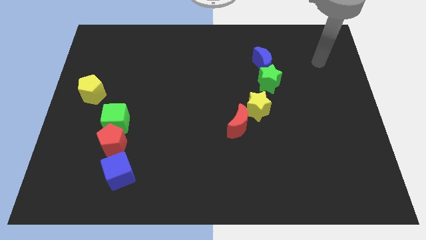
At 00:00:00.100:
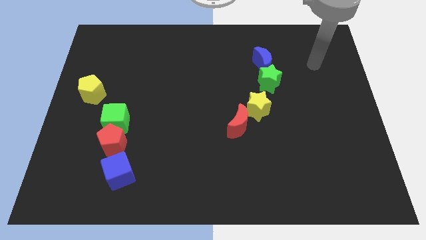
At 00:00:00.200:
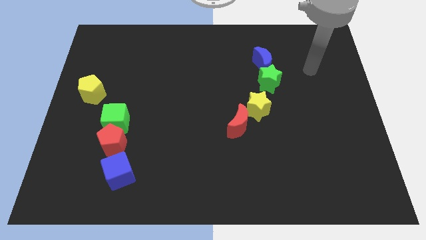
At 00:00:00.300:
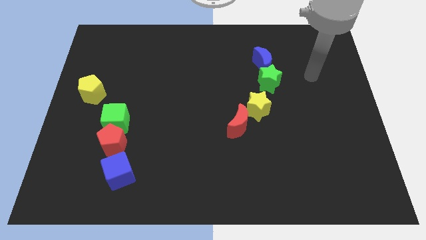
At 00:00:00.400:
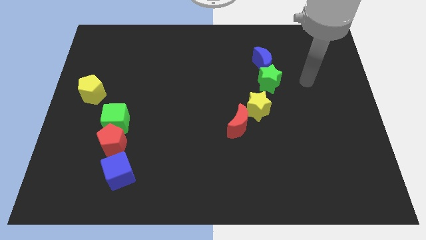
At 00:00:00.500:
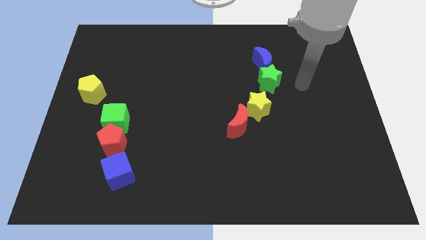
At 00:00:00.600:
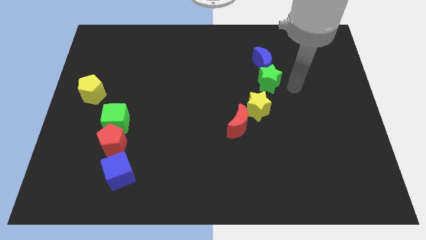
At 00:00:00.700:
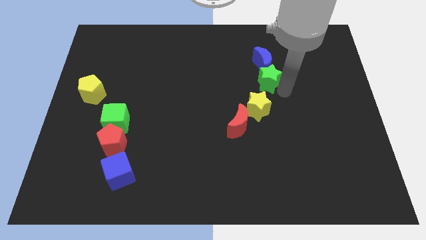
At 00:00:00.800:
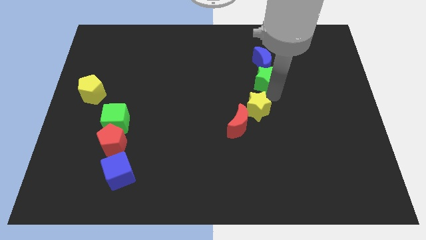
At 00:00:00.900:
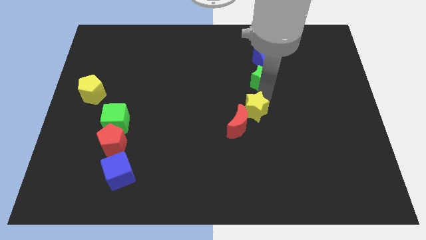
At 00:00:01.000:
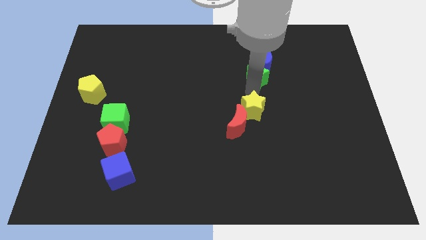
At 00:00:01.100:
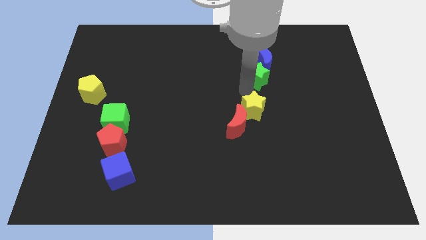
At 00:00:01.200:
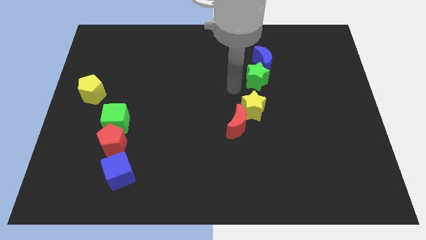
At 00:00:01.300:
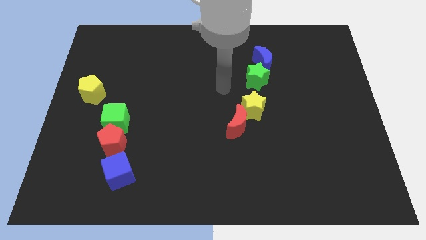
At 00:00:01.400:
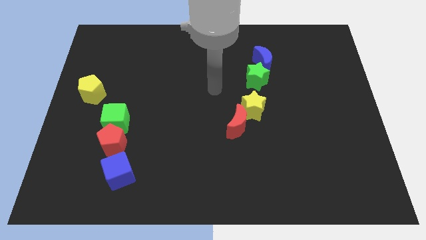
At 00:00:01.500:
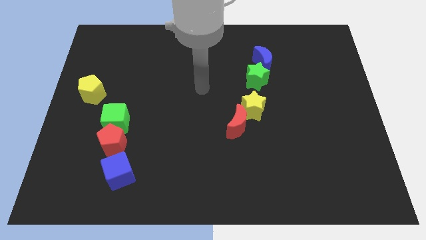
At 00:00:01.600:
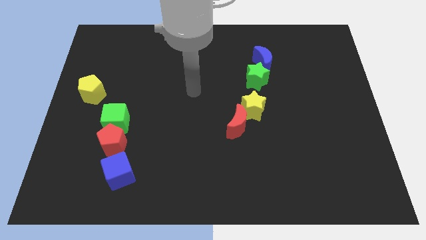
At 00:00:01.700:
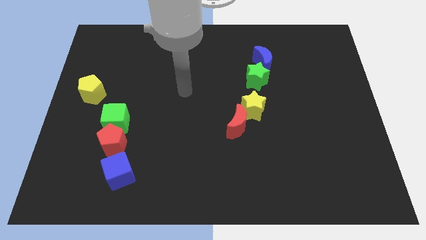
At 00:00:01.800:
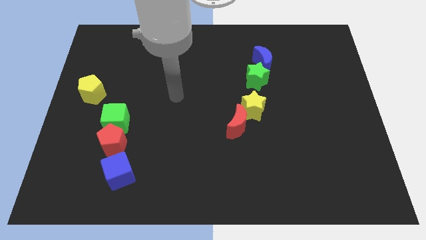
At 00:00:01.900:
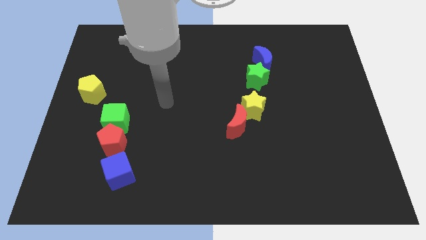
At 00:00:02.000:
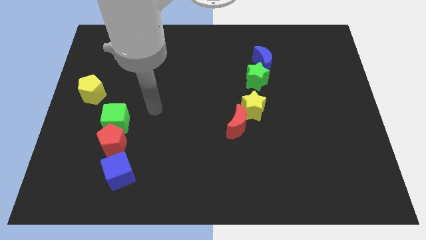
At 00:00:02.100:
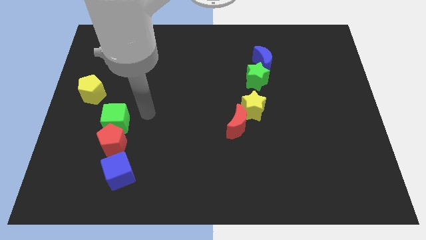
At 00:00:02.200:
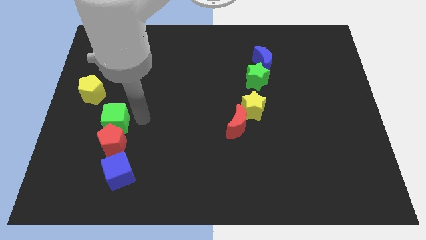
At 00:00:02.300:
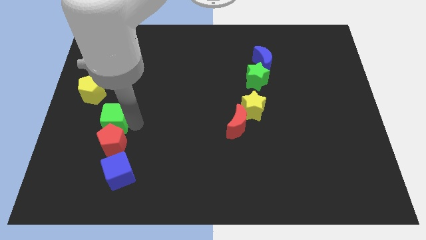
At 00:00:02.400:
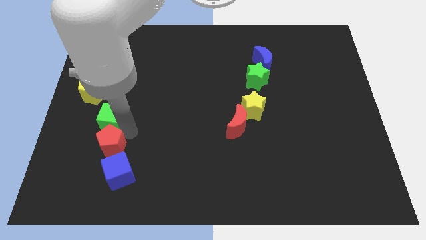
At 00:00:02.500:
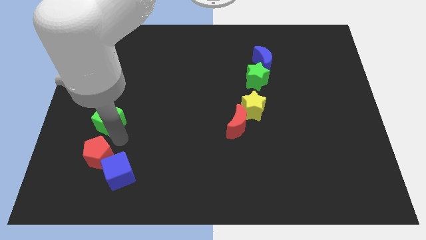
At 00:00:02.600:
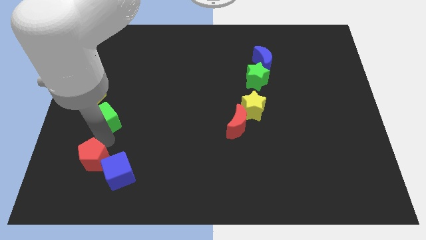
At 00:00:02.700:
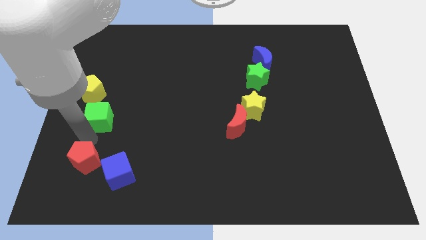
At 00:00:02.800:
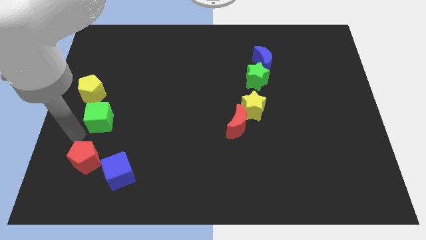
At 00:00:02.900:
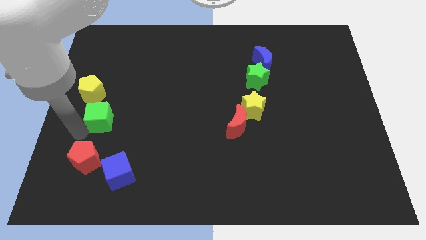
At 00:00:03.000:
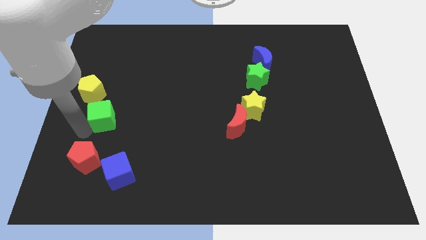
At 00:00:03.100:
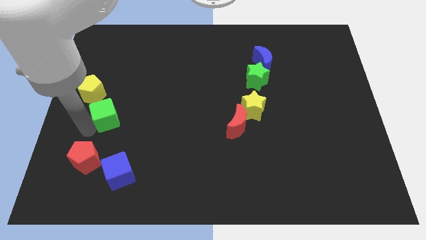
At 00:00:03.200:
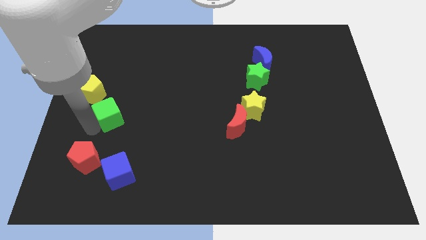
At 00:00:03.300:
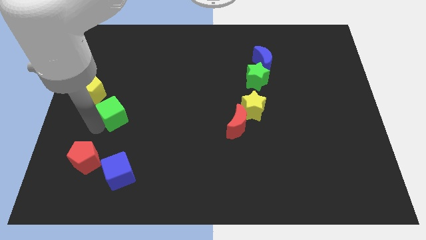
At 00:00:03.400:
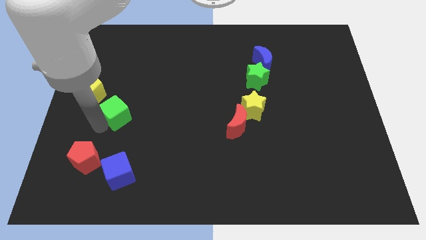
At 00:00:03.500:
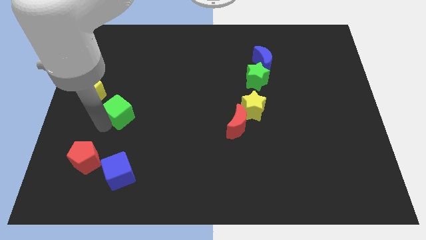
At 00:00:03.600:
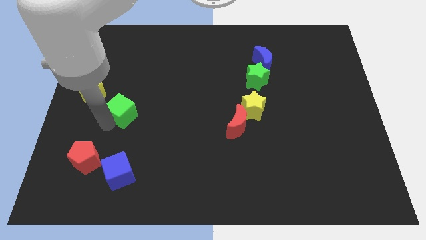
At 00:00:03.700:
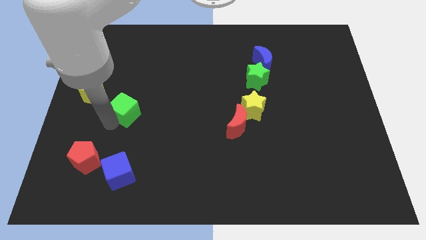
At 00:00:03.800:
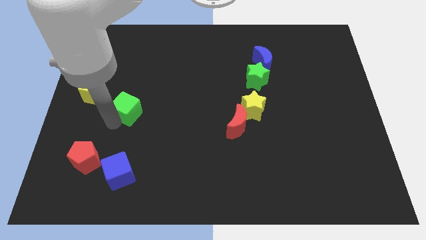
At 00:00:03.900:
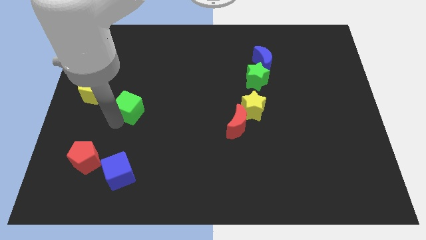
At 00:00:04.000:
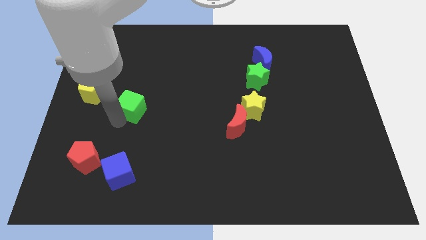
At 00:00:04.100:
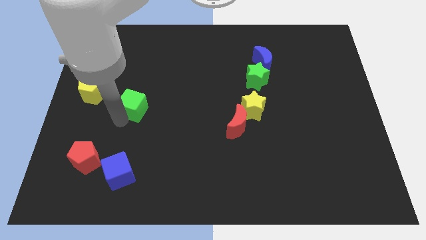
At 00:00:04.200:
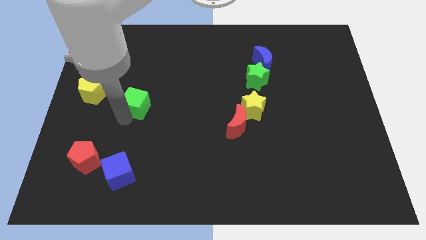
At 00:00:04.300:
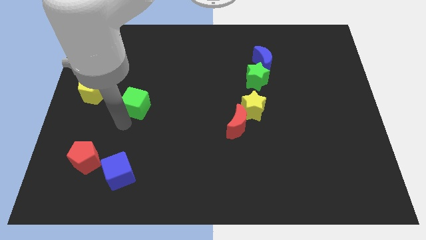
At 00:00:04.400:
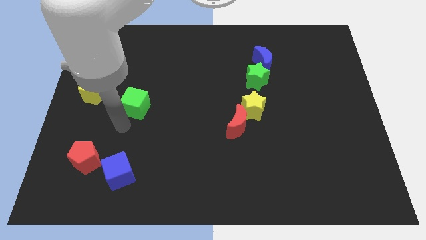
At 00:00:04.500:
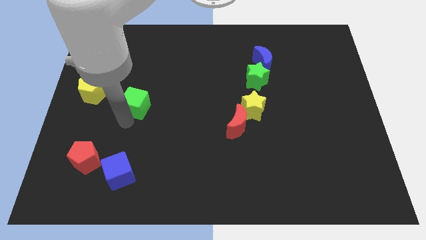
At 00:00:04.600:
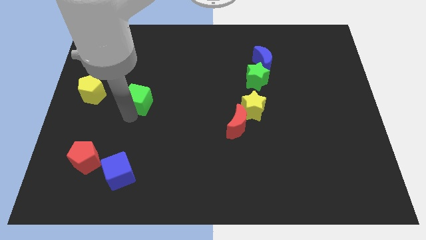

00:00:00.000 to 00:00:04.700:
move the green cube a bit diagonally up and to the right

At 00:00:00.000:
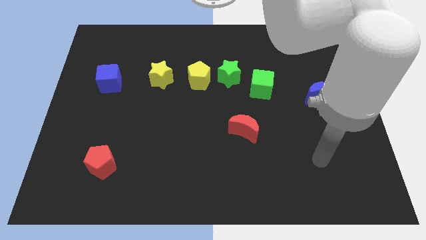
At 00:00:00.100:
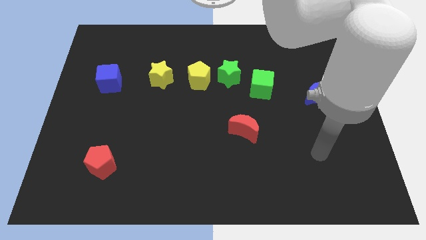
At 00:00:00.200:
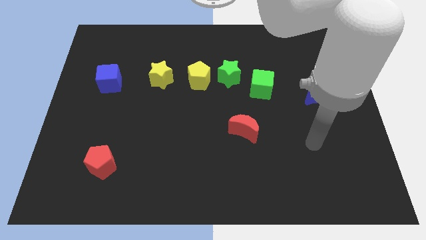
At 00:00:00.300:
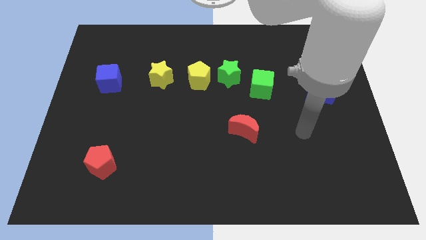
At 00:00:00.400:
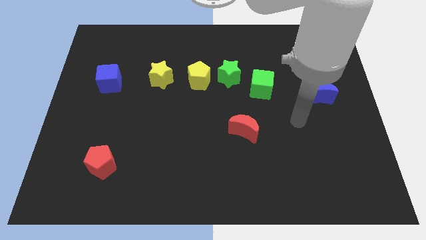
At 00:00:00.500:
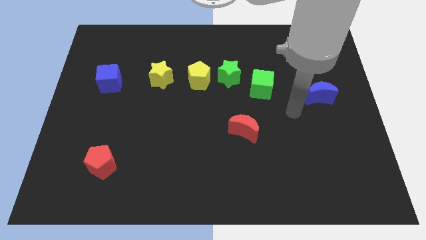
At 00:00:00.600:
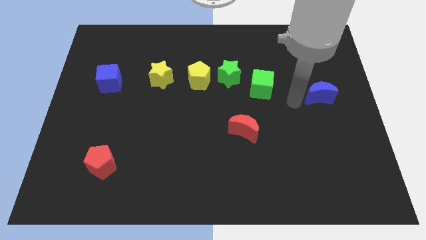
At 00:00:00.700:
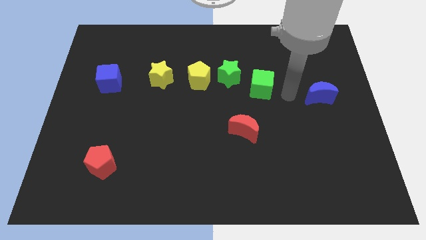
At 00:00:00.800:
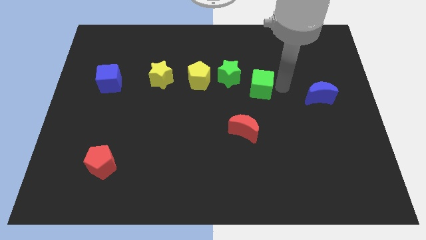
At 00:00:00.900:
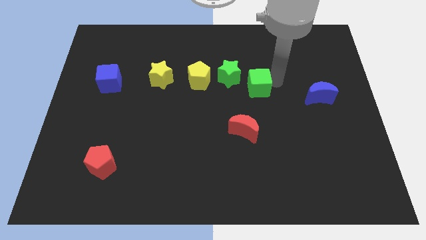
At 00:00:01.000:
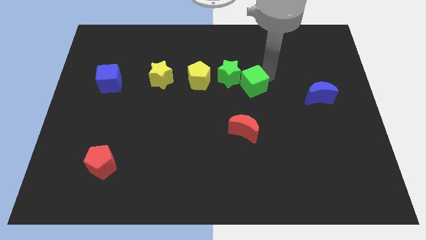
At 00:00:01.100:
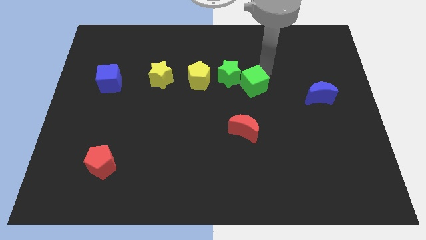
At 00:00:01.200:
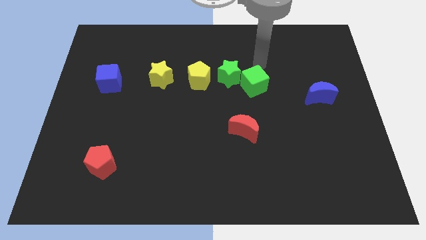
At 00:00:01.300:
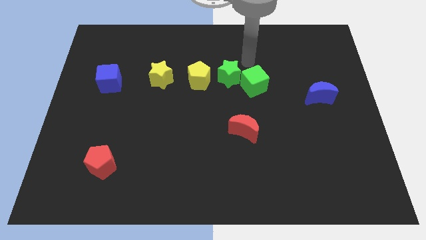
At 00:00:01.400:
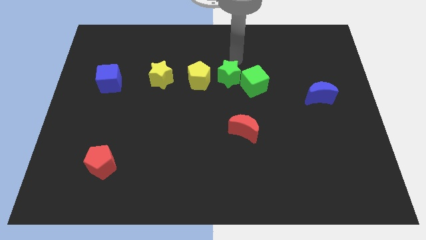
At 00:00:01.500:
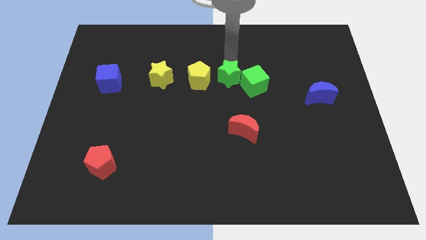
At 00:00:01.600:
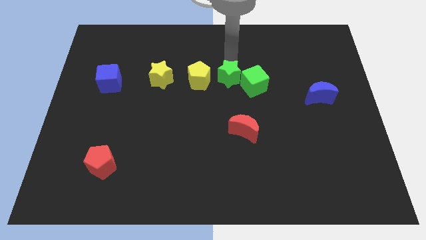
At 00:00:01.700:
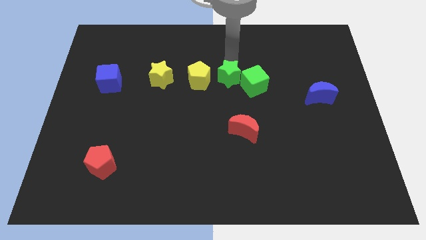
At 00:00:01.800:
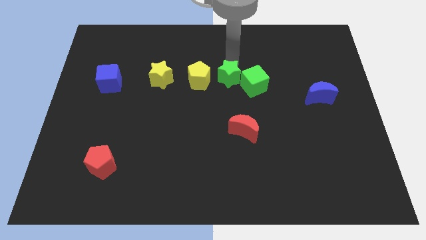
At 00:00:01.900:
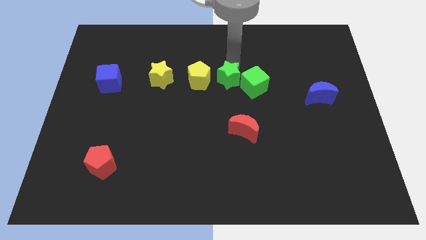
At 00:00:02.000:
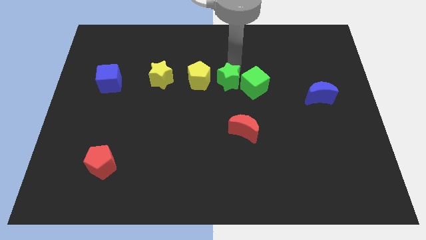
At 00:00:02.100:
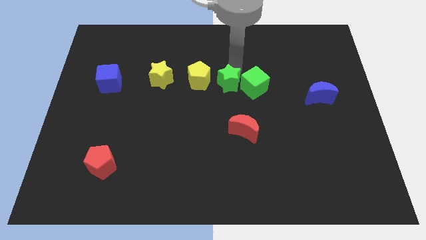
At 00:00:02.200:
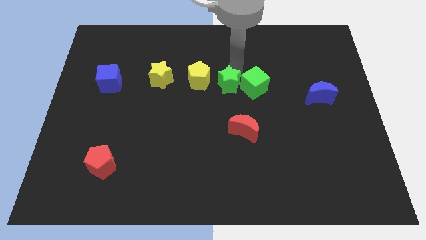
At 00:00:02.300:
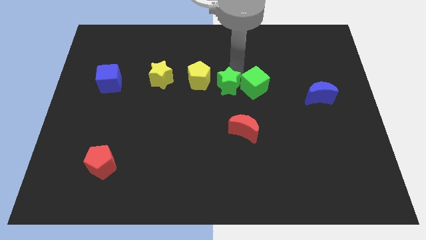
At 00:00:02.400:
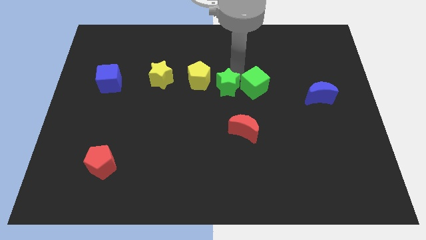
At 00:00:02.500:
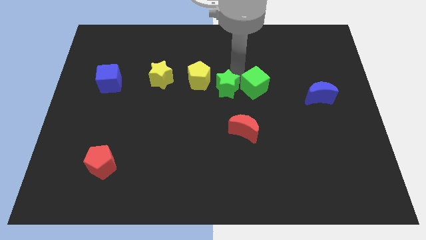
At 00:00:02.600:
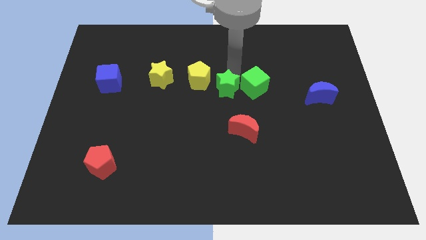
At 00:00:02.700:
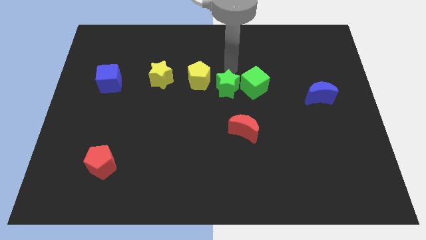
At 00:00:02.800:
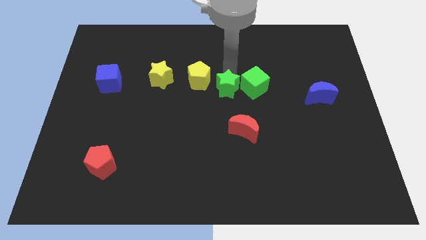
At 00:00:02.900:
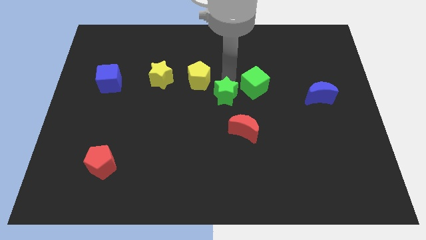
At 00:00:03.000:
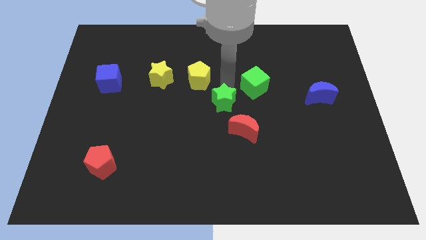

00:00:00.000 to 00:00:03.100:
push the green star down somewhat
